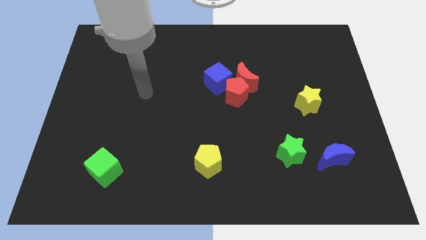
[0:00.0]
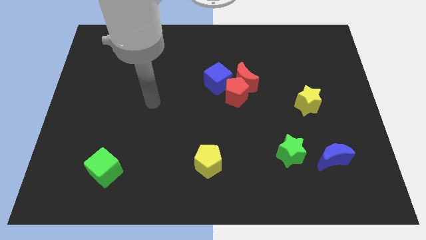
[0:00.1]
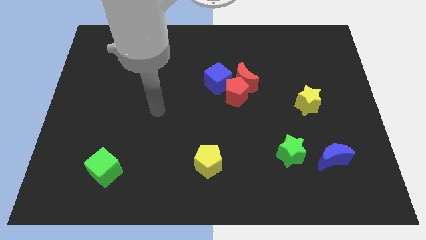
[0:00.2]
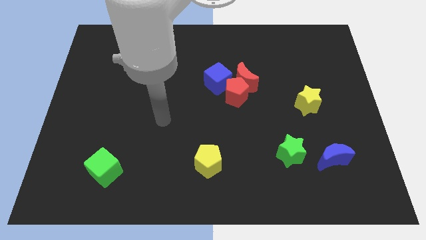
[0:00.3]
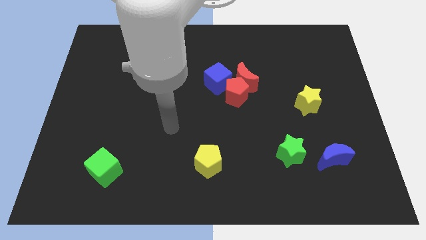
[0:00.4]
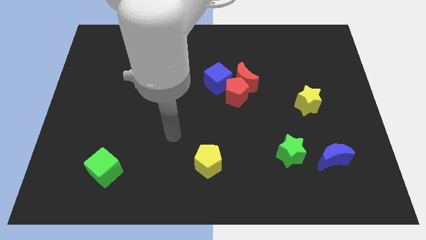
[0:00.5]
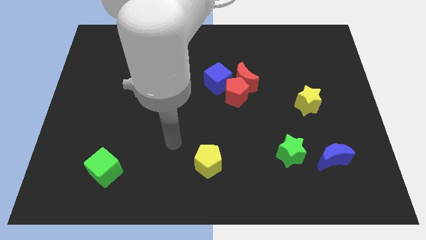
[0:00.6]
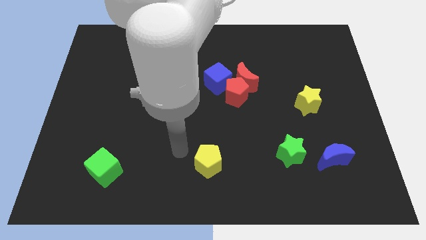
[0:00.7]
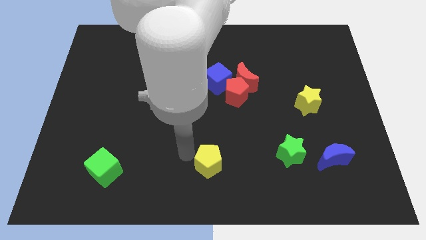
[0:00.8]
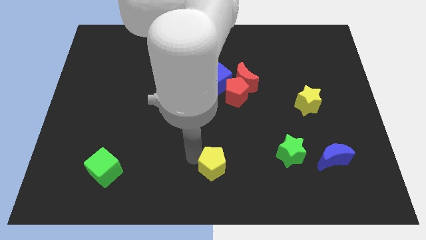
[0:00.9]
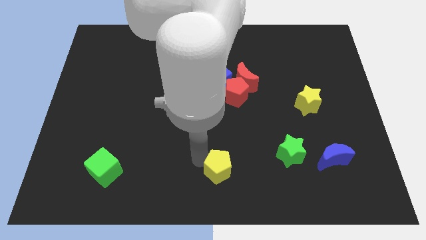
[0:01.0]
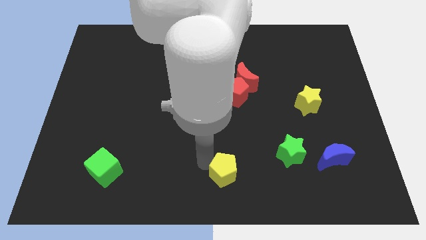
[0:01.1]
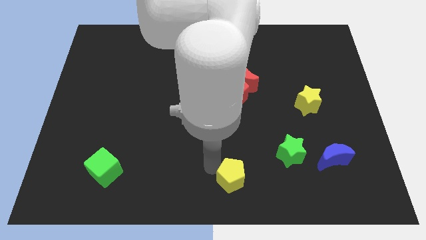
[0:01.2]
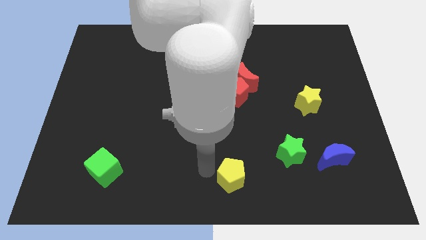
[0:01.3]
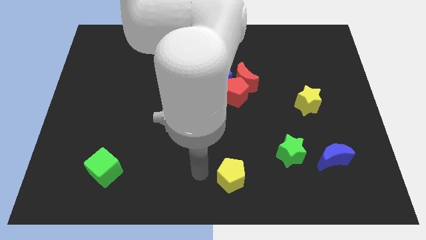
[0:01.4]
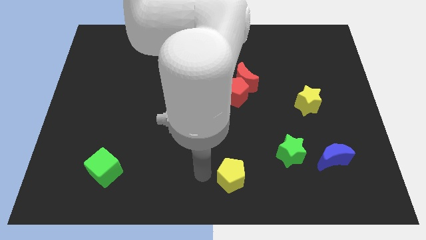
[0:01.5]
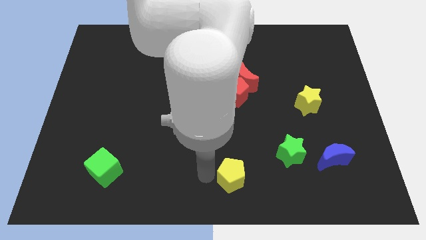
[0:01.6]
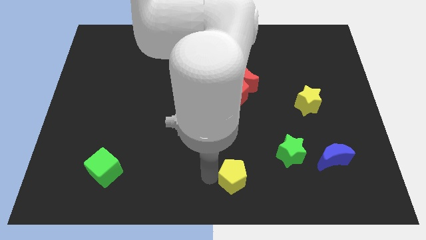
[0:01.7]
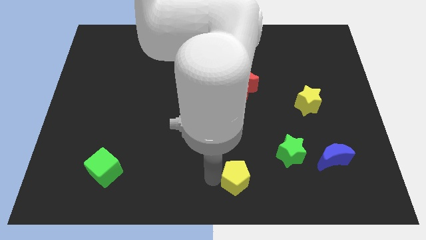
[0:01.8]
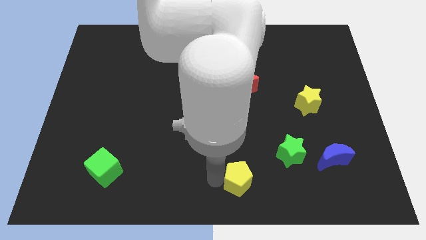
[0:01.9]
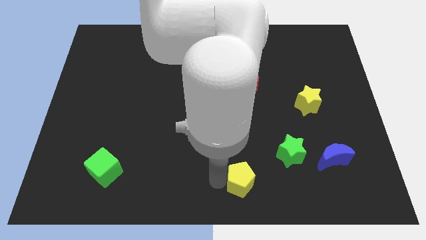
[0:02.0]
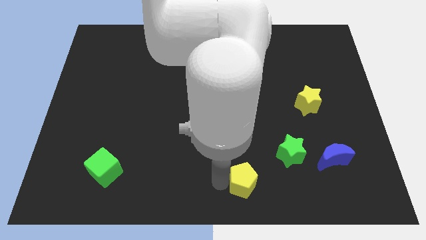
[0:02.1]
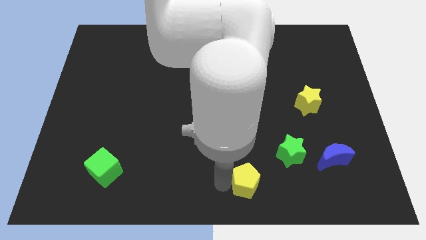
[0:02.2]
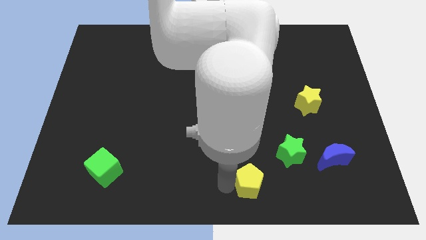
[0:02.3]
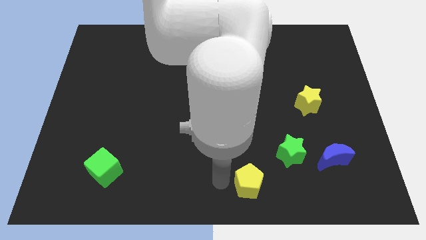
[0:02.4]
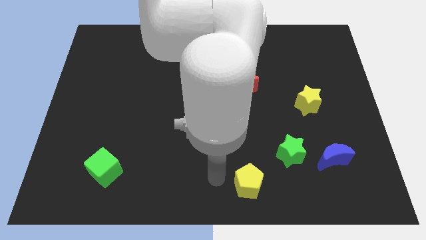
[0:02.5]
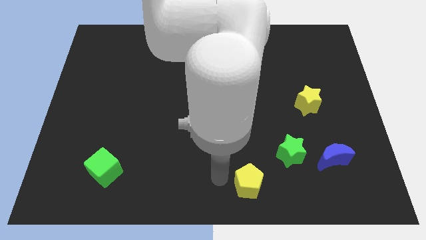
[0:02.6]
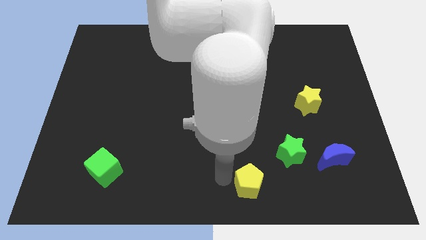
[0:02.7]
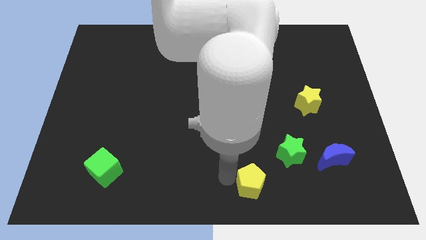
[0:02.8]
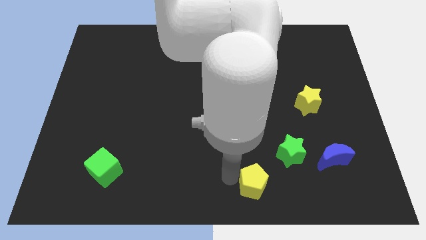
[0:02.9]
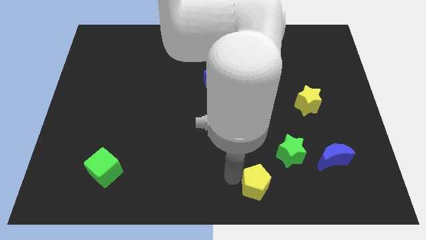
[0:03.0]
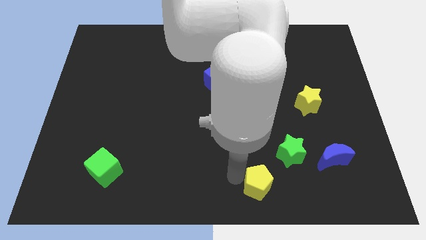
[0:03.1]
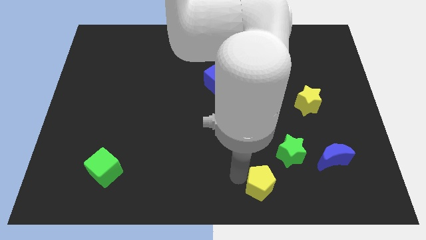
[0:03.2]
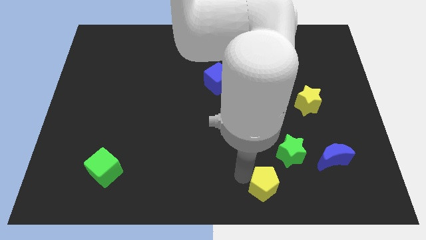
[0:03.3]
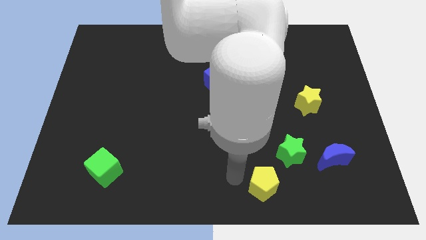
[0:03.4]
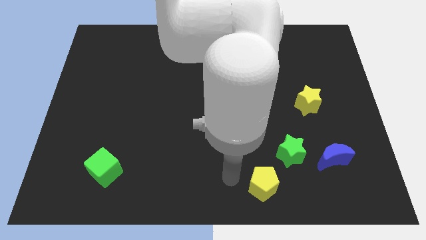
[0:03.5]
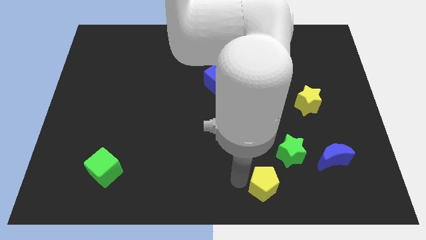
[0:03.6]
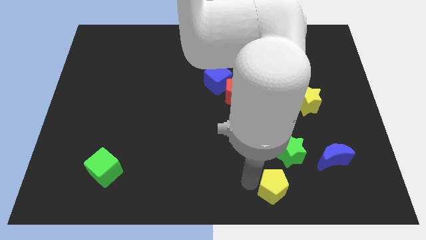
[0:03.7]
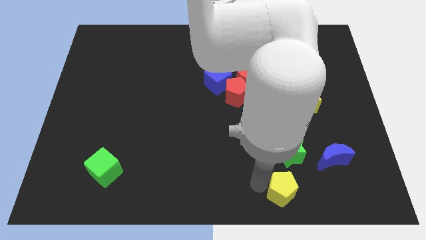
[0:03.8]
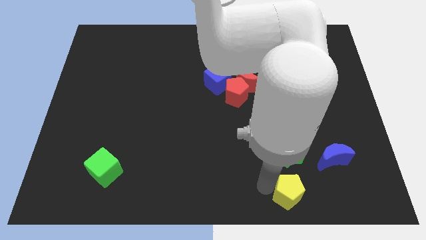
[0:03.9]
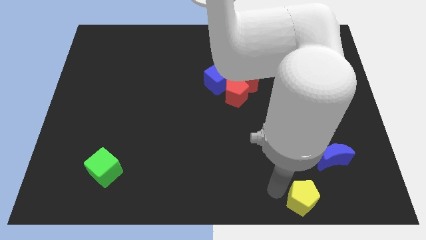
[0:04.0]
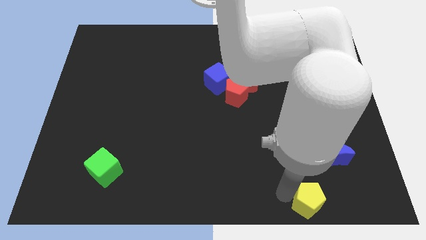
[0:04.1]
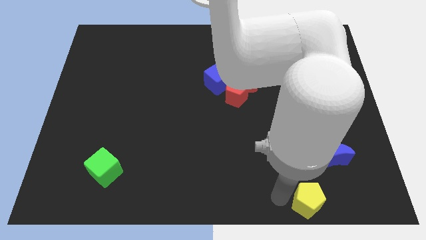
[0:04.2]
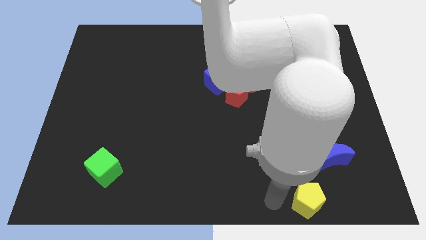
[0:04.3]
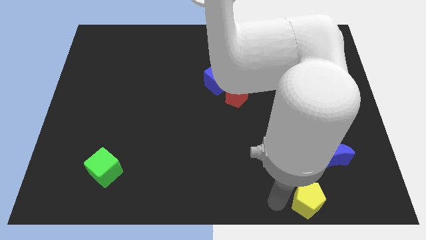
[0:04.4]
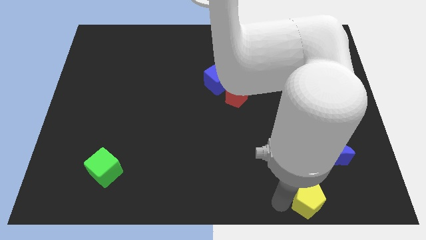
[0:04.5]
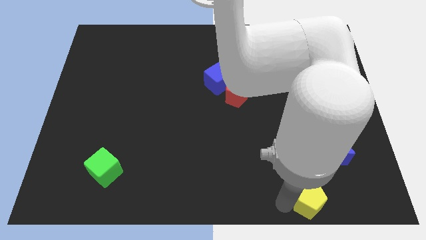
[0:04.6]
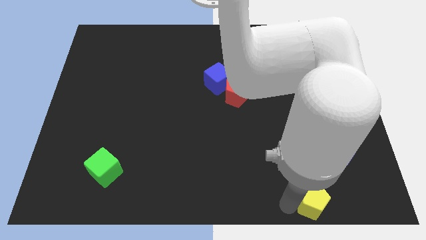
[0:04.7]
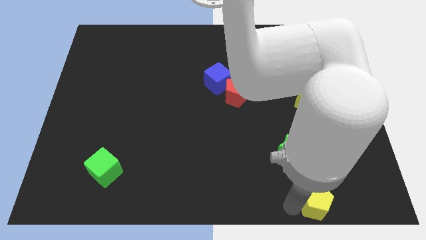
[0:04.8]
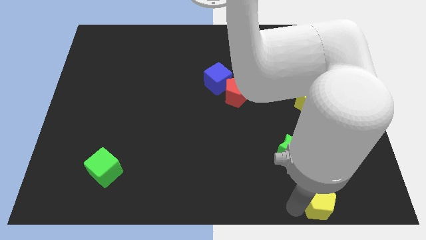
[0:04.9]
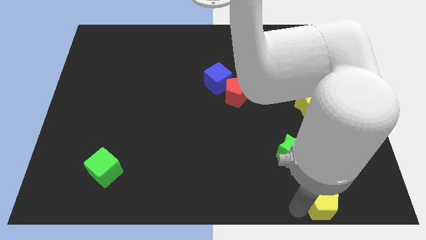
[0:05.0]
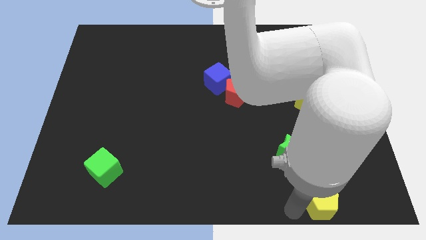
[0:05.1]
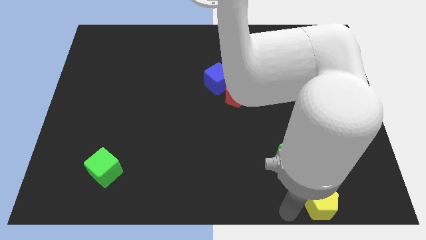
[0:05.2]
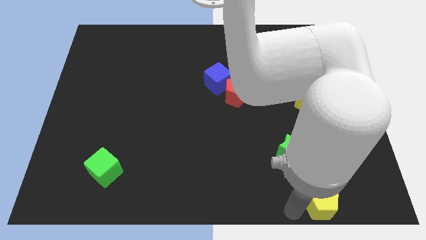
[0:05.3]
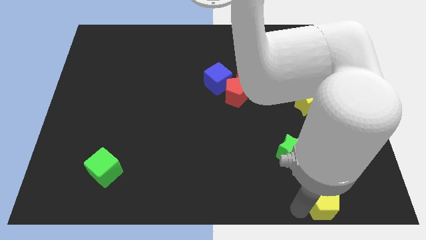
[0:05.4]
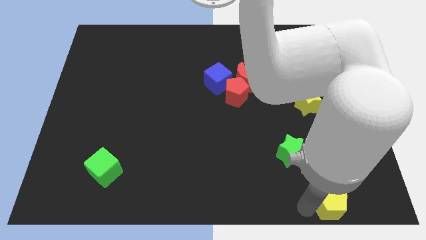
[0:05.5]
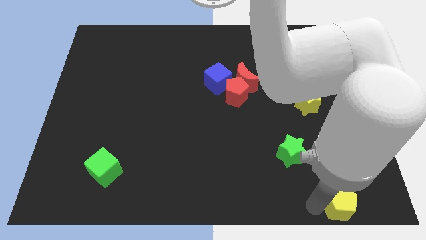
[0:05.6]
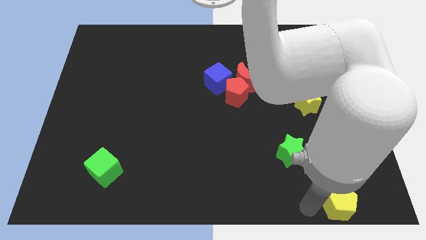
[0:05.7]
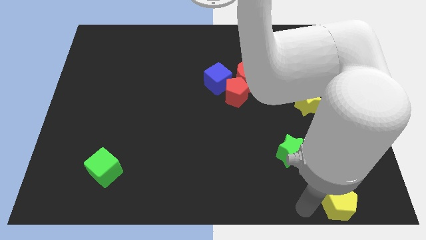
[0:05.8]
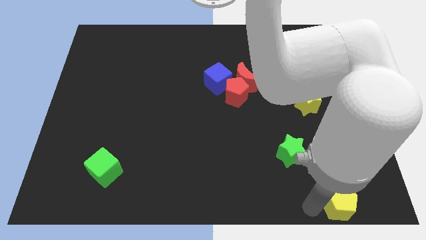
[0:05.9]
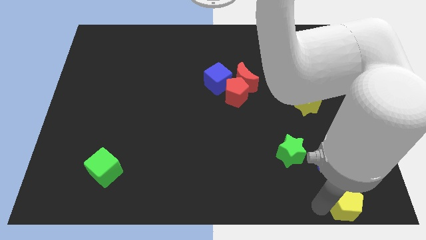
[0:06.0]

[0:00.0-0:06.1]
push the yellow pentagon to the bottom right corner

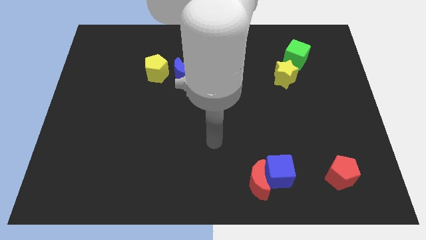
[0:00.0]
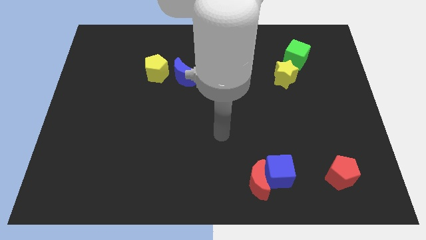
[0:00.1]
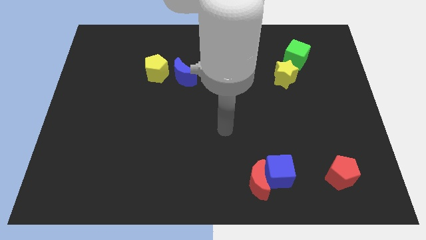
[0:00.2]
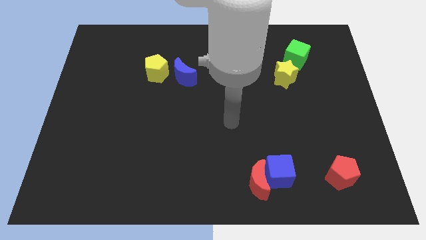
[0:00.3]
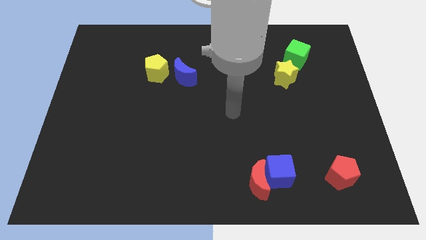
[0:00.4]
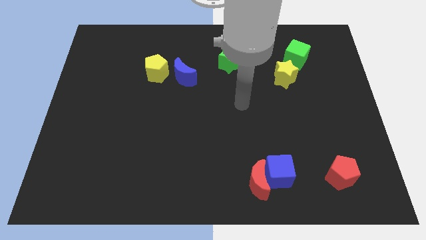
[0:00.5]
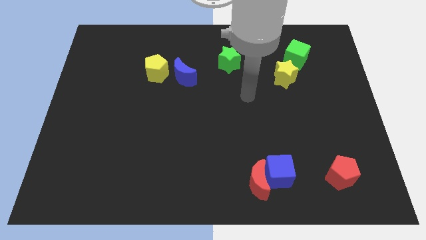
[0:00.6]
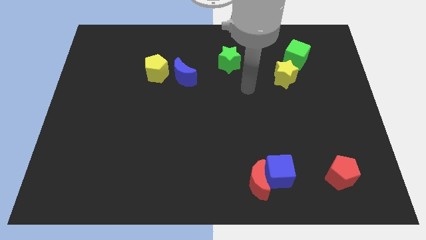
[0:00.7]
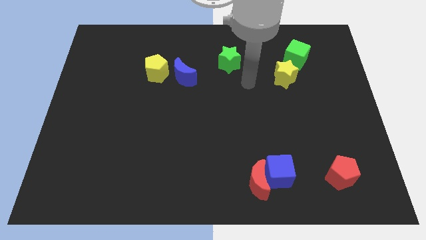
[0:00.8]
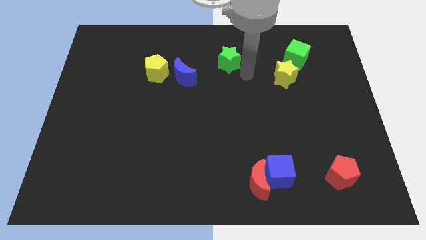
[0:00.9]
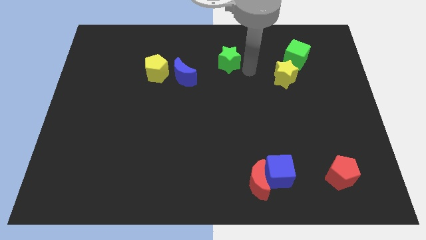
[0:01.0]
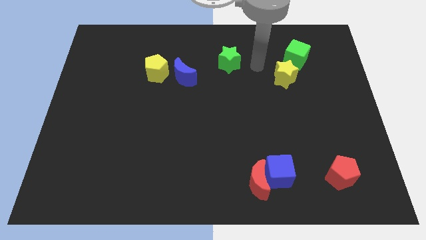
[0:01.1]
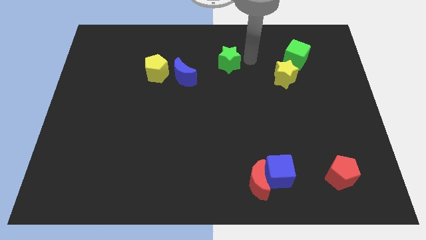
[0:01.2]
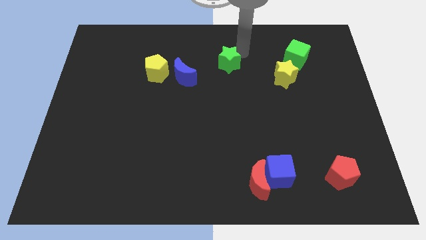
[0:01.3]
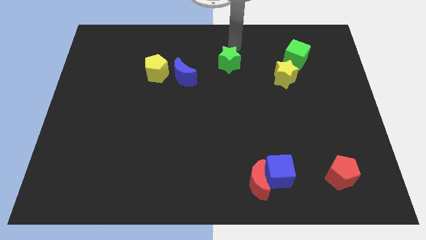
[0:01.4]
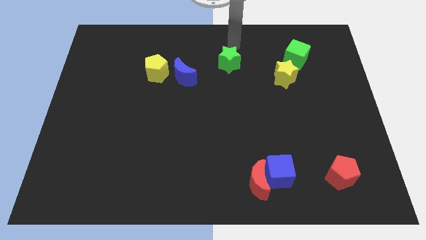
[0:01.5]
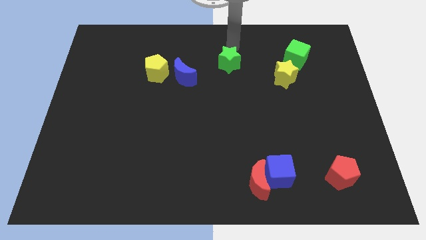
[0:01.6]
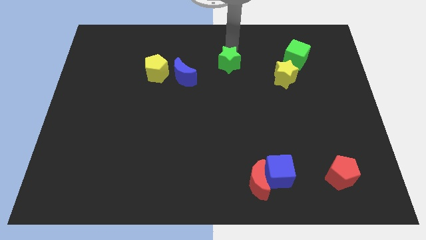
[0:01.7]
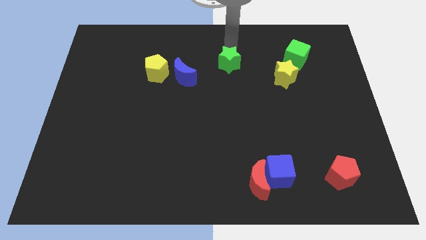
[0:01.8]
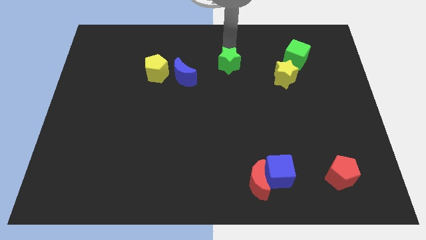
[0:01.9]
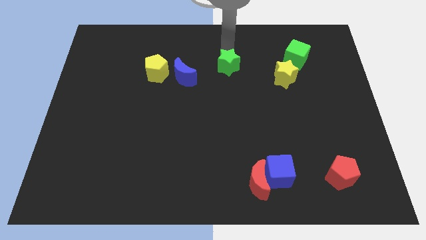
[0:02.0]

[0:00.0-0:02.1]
move the green star to the middle of the board
